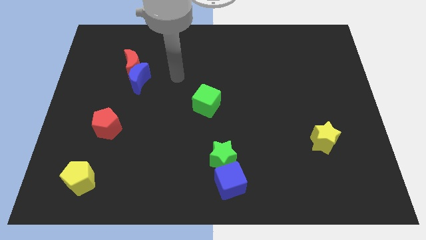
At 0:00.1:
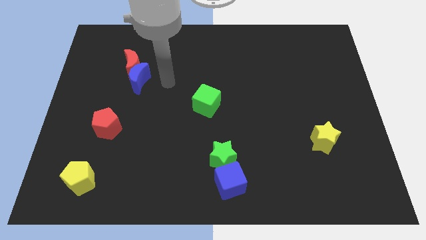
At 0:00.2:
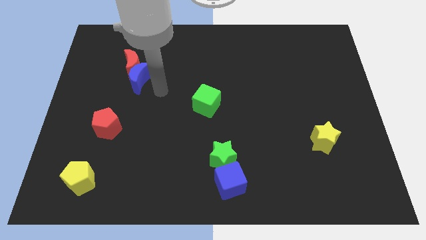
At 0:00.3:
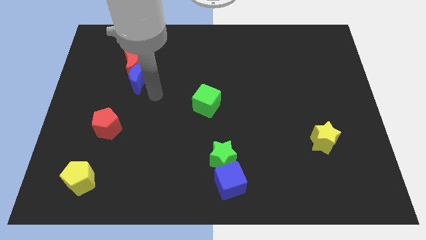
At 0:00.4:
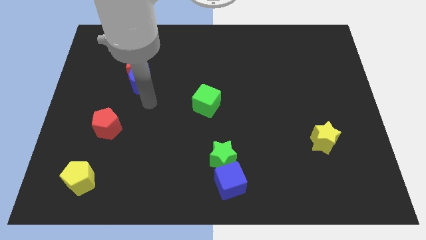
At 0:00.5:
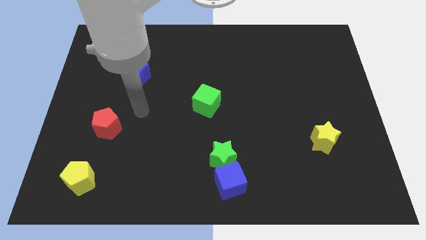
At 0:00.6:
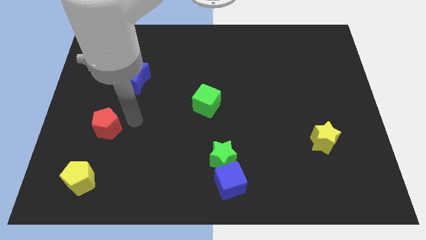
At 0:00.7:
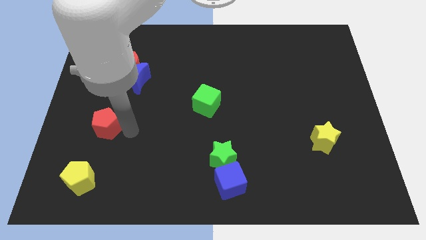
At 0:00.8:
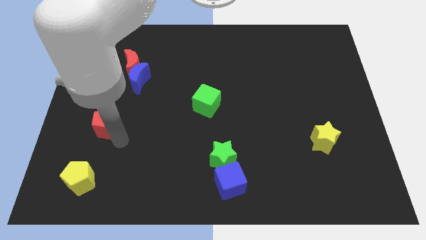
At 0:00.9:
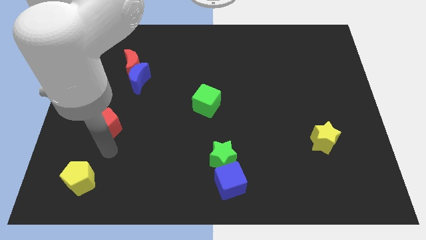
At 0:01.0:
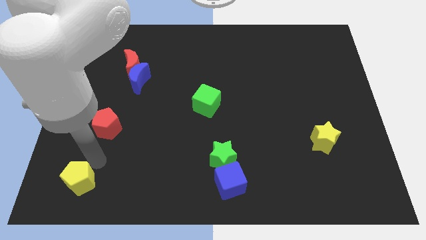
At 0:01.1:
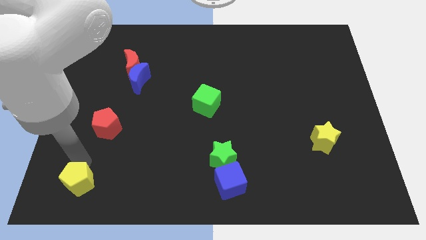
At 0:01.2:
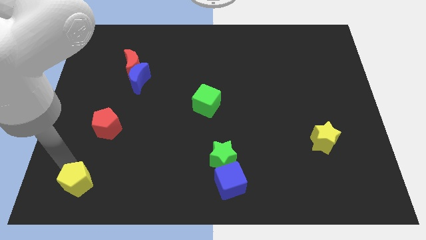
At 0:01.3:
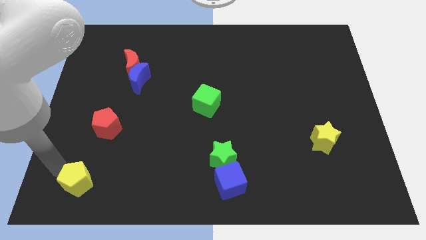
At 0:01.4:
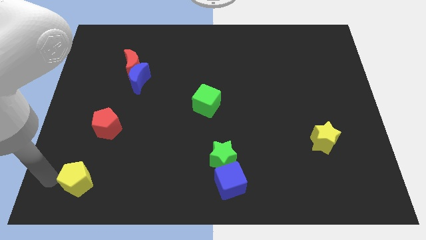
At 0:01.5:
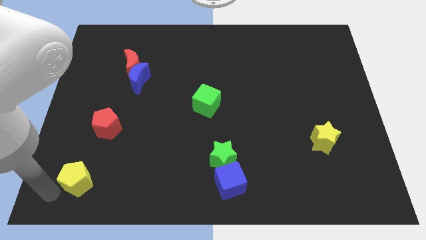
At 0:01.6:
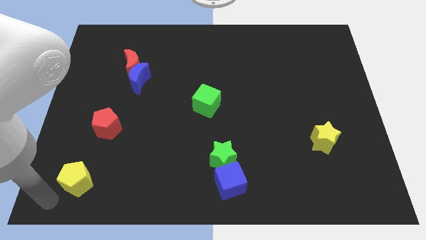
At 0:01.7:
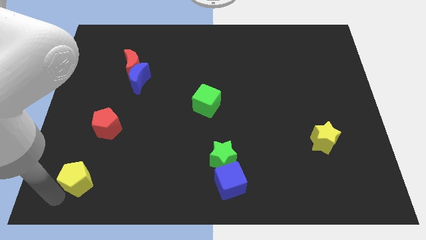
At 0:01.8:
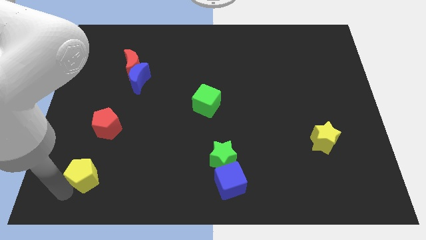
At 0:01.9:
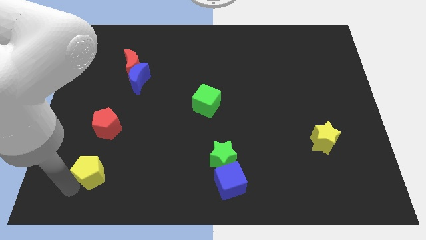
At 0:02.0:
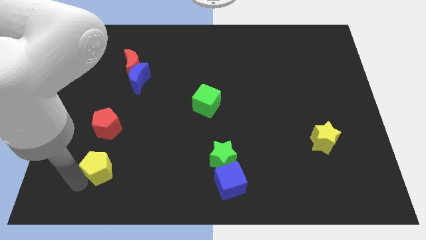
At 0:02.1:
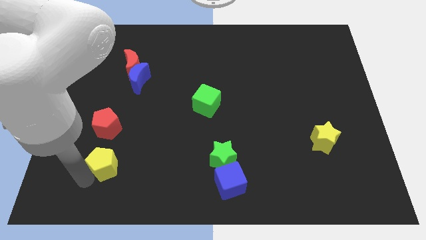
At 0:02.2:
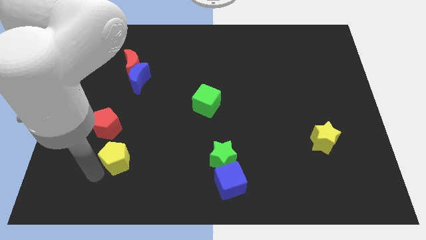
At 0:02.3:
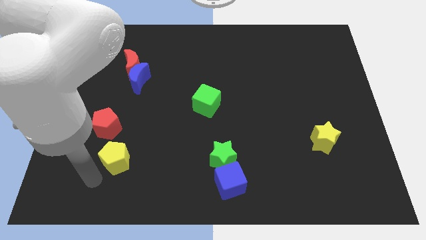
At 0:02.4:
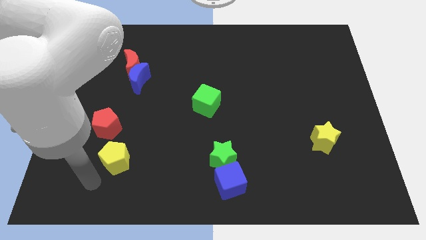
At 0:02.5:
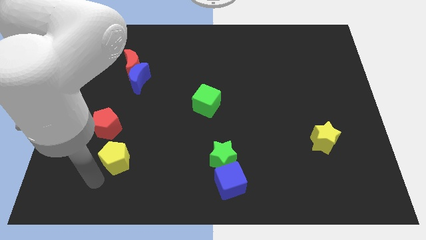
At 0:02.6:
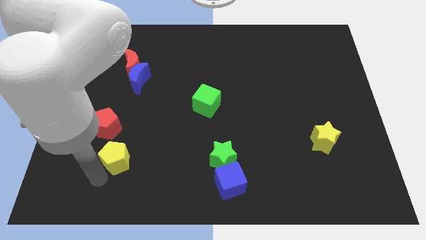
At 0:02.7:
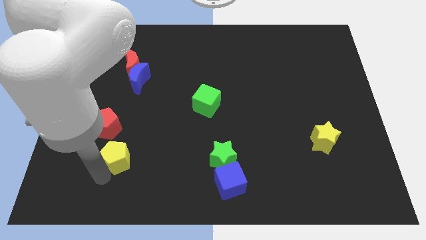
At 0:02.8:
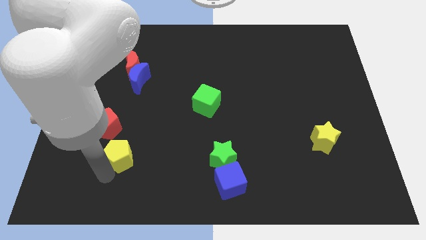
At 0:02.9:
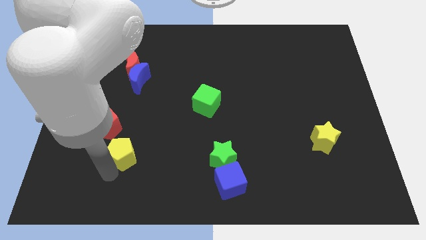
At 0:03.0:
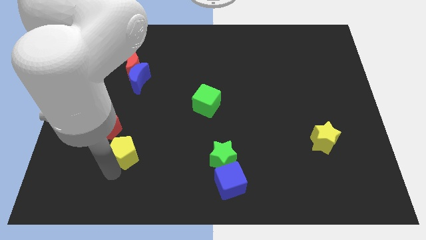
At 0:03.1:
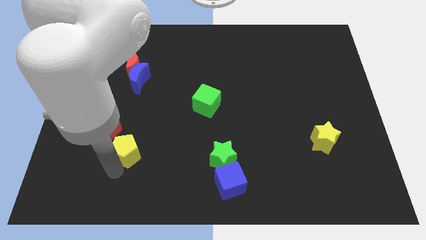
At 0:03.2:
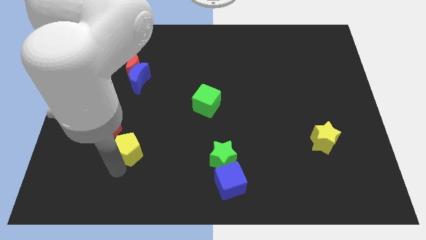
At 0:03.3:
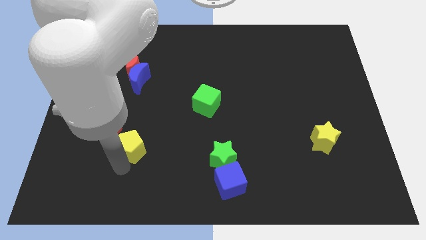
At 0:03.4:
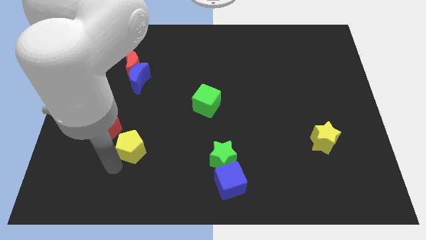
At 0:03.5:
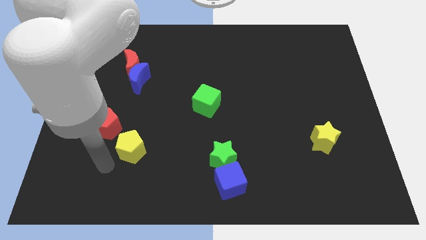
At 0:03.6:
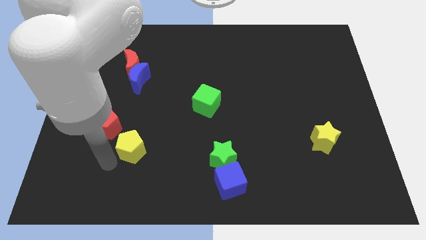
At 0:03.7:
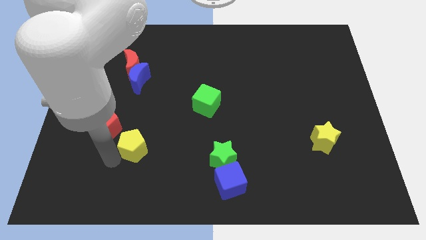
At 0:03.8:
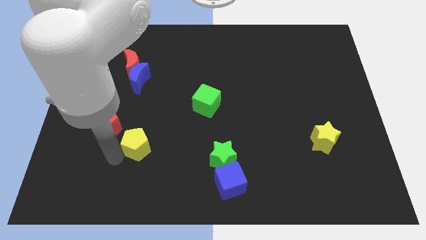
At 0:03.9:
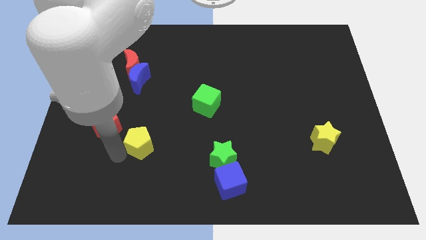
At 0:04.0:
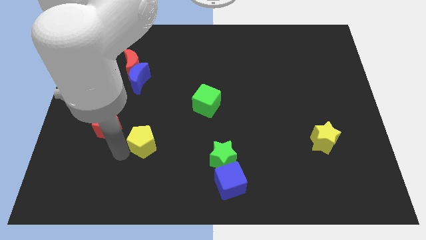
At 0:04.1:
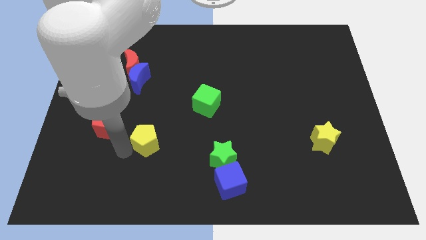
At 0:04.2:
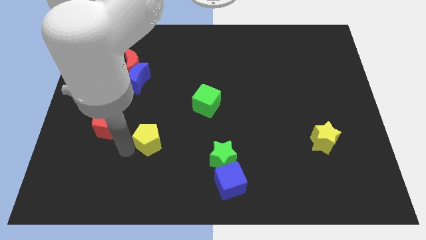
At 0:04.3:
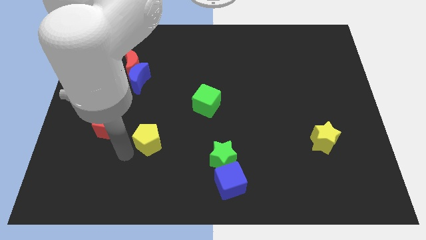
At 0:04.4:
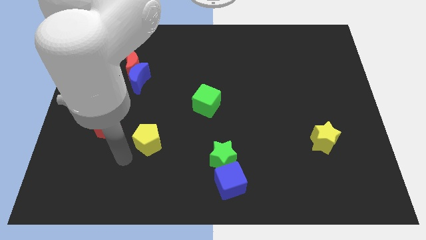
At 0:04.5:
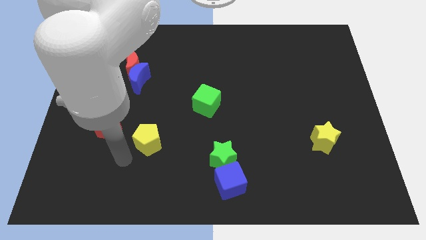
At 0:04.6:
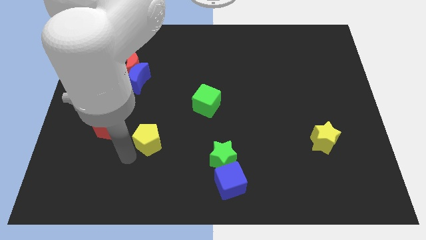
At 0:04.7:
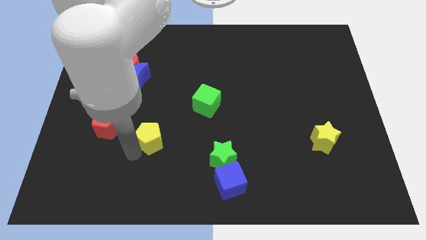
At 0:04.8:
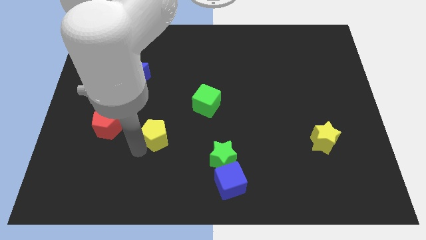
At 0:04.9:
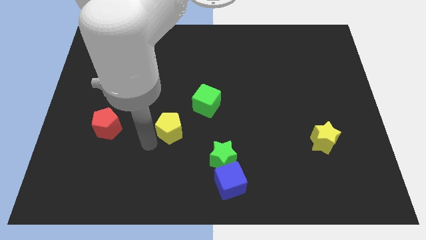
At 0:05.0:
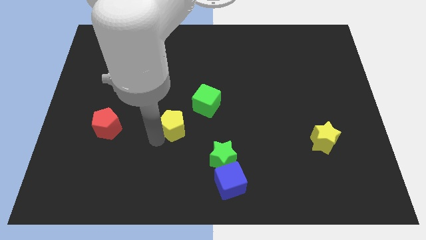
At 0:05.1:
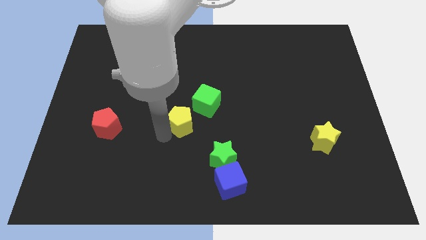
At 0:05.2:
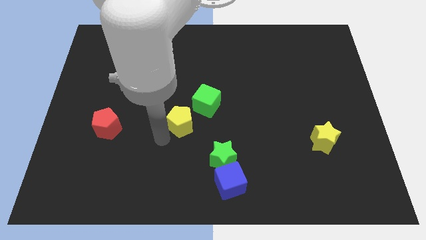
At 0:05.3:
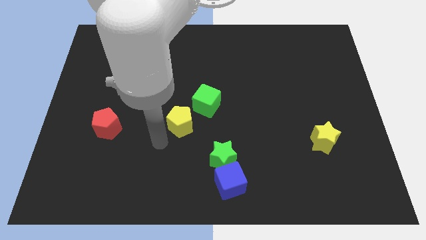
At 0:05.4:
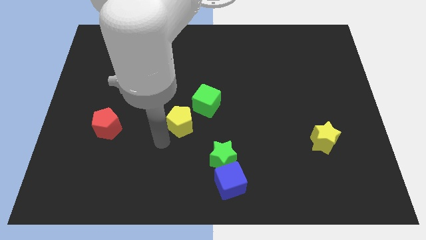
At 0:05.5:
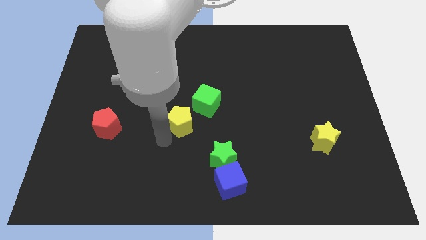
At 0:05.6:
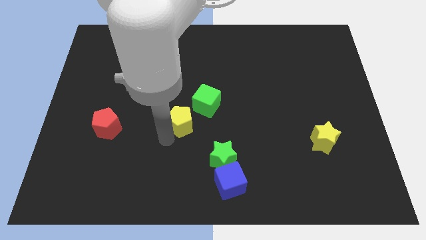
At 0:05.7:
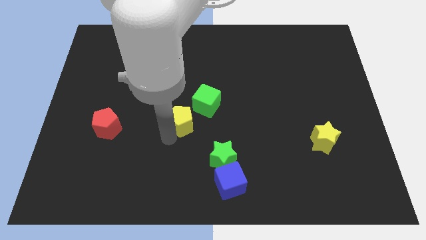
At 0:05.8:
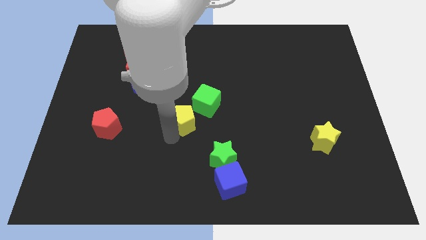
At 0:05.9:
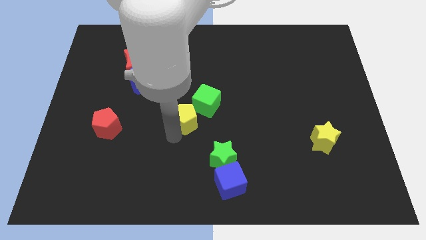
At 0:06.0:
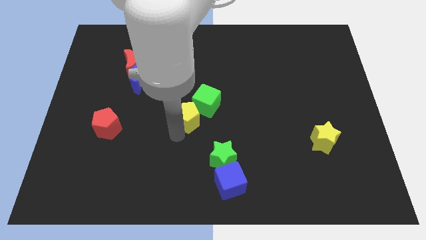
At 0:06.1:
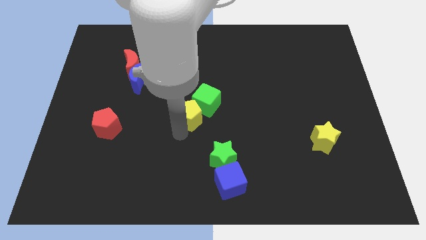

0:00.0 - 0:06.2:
push the yellow pentagon close to the green cube
